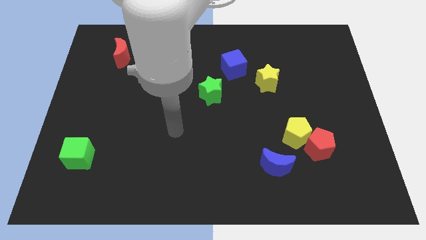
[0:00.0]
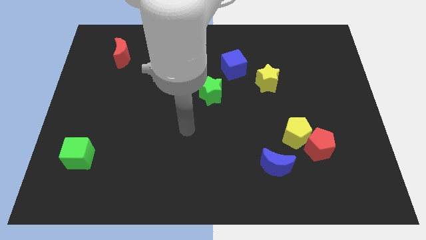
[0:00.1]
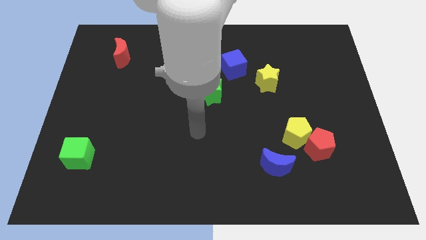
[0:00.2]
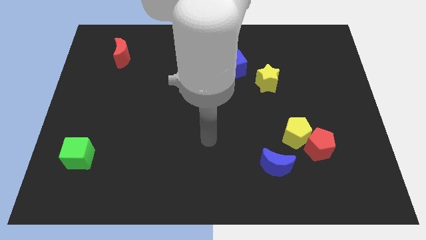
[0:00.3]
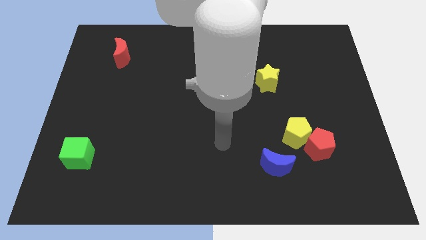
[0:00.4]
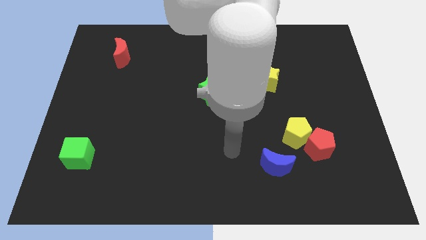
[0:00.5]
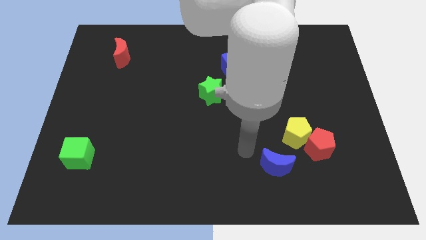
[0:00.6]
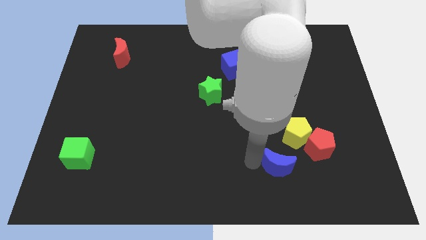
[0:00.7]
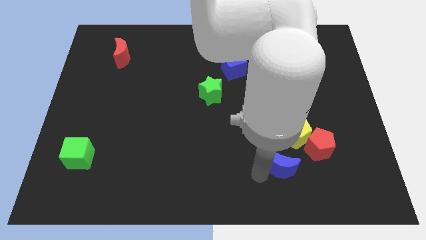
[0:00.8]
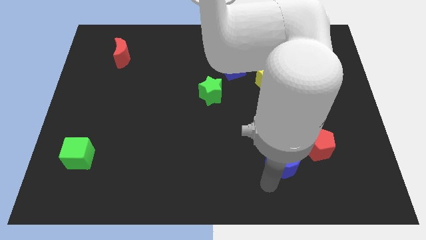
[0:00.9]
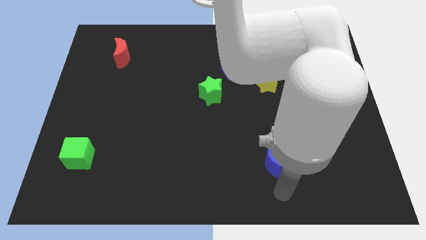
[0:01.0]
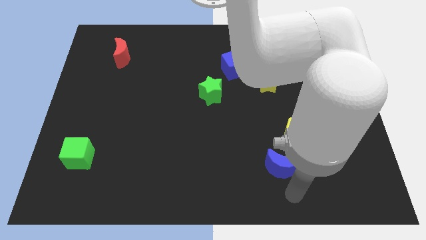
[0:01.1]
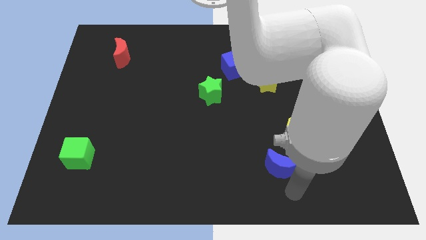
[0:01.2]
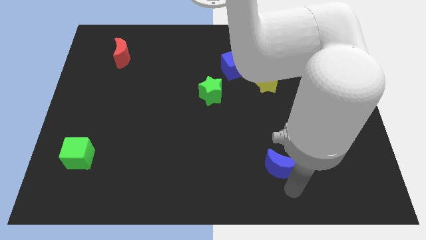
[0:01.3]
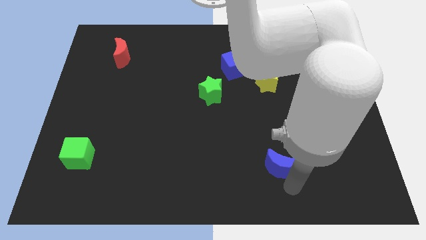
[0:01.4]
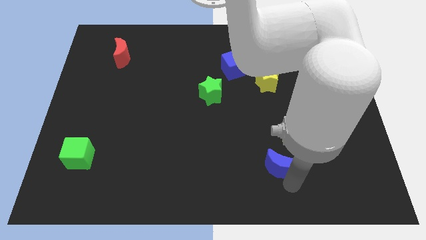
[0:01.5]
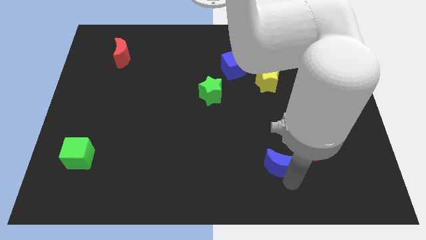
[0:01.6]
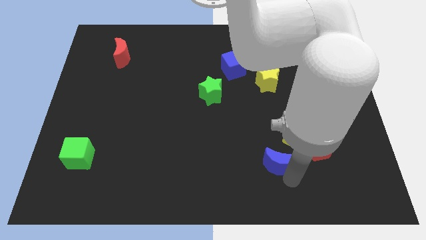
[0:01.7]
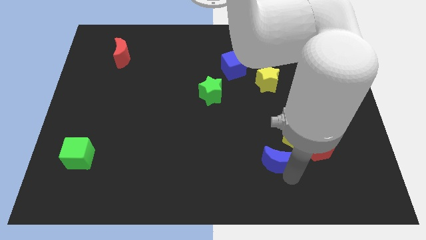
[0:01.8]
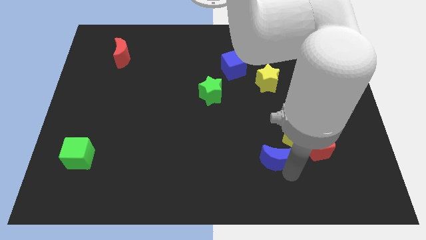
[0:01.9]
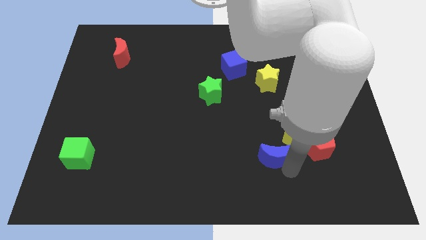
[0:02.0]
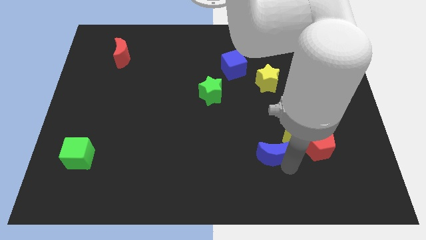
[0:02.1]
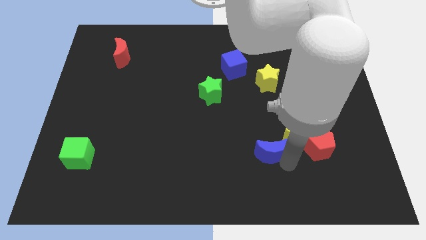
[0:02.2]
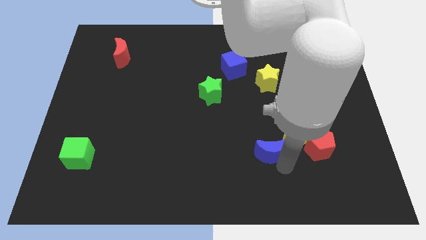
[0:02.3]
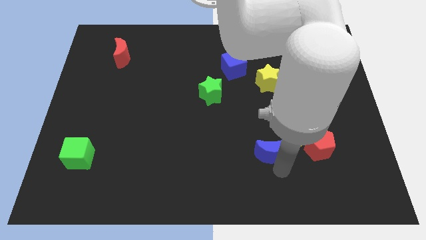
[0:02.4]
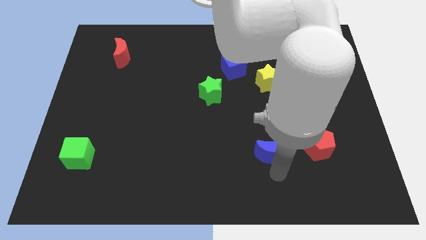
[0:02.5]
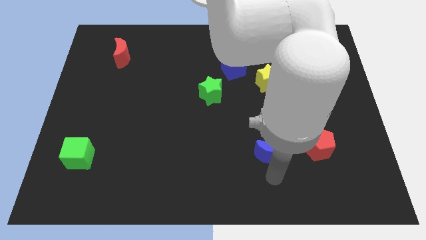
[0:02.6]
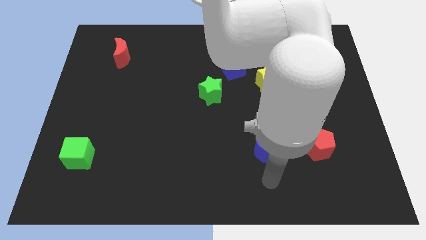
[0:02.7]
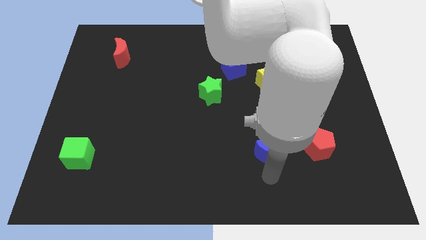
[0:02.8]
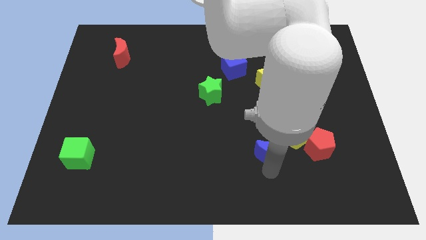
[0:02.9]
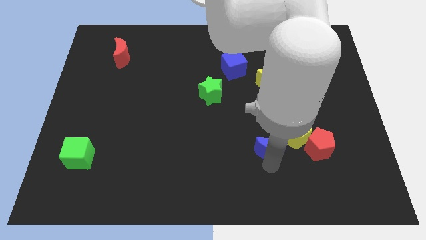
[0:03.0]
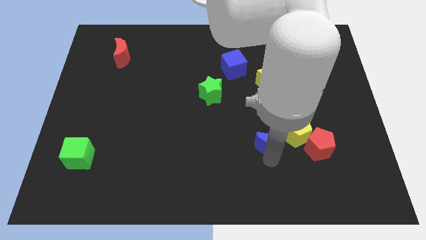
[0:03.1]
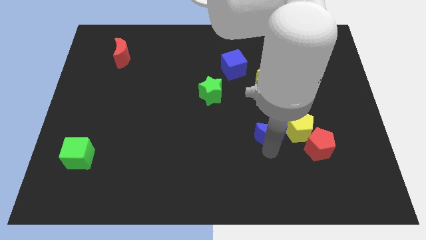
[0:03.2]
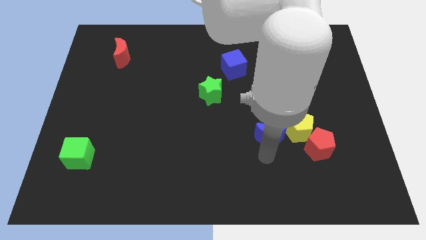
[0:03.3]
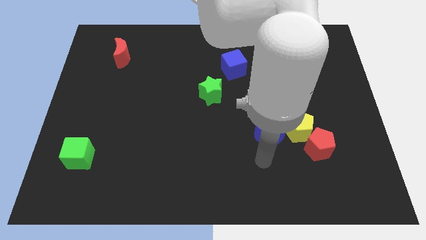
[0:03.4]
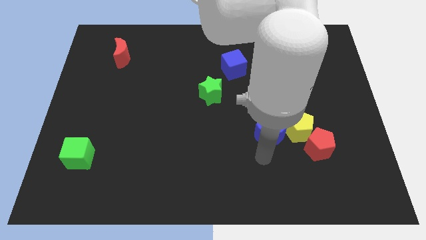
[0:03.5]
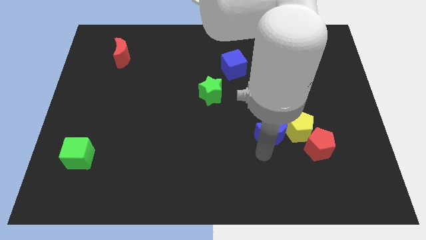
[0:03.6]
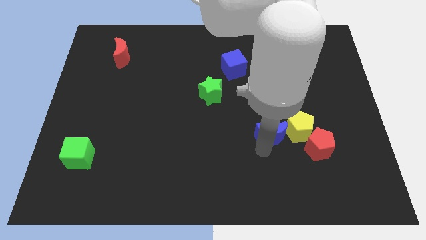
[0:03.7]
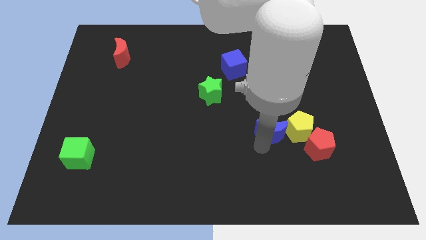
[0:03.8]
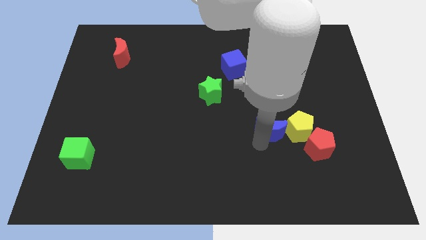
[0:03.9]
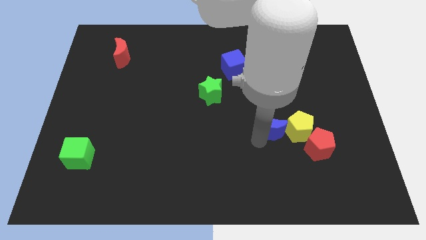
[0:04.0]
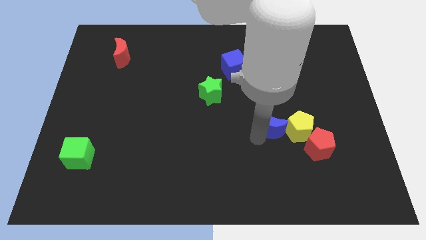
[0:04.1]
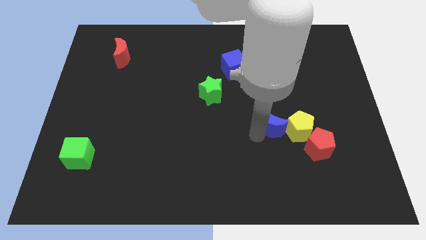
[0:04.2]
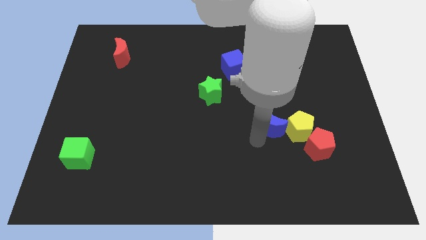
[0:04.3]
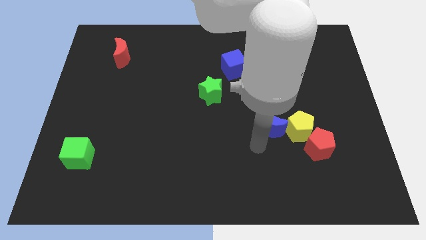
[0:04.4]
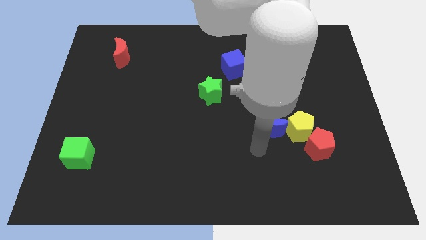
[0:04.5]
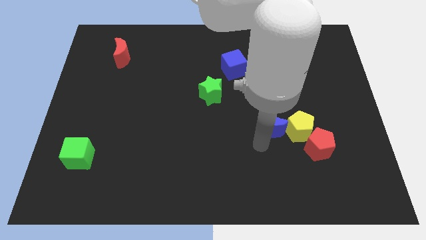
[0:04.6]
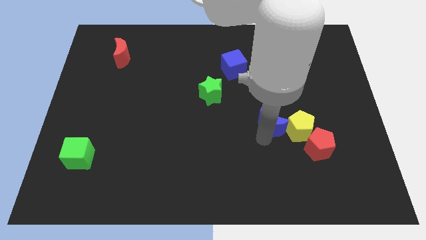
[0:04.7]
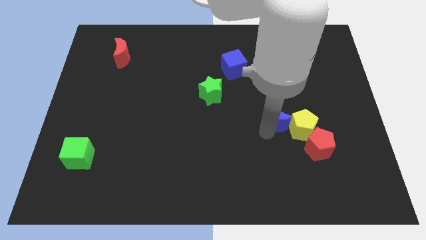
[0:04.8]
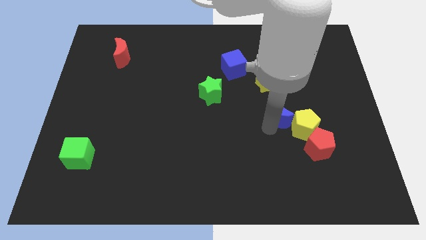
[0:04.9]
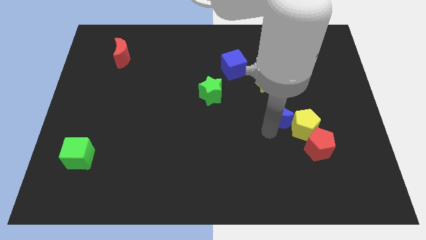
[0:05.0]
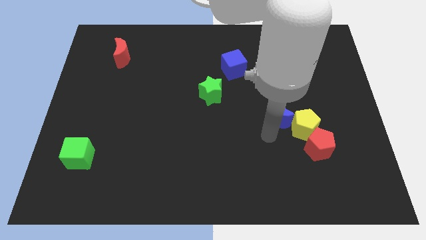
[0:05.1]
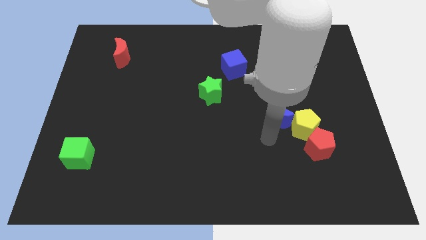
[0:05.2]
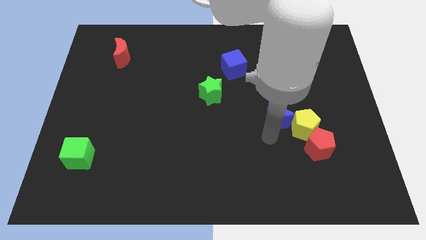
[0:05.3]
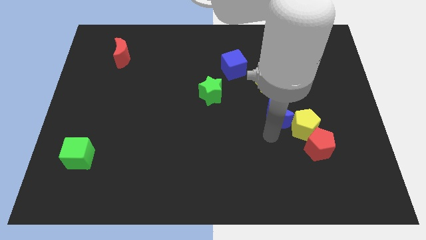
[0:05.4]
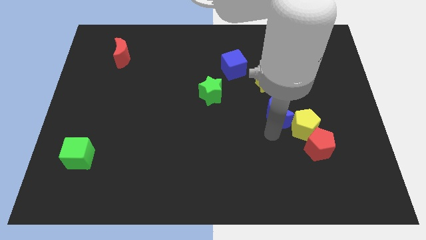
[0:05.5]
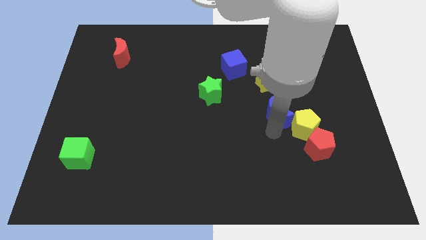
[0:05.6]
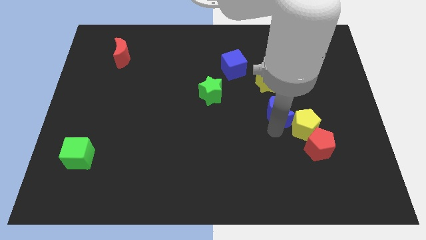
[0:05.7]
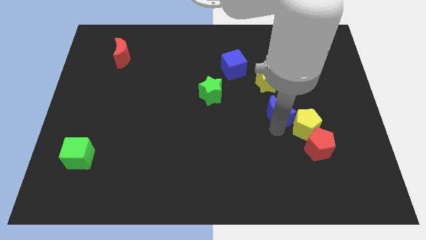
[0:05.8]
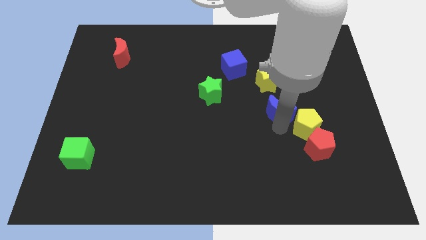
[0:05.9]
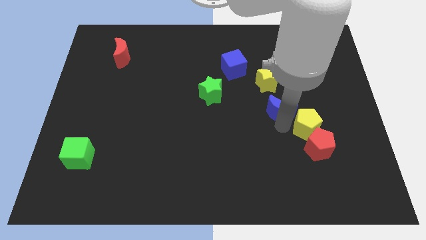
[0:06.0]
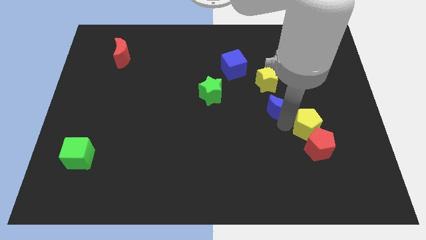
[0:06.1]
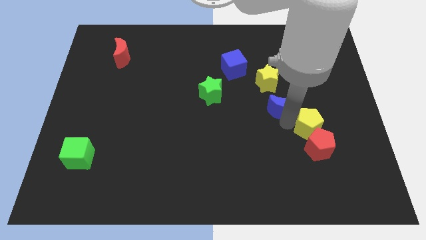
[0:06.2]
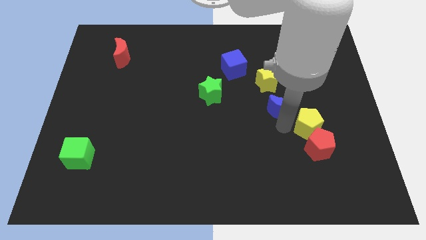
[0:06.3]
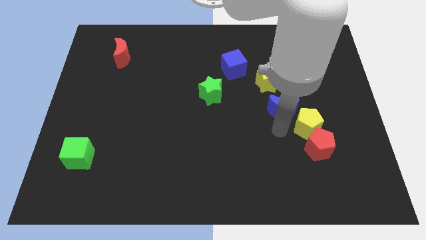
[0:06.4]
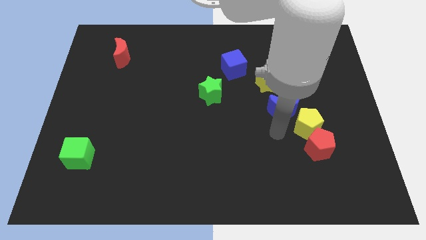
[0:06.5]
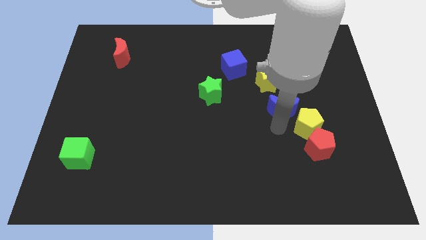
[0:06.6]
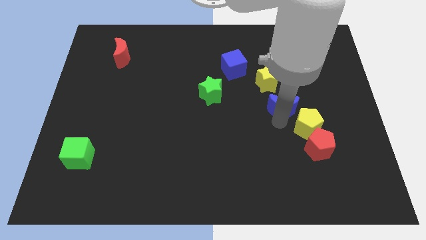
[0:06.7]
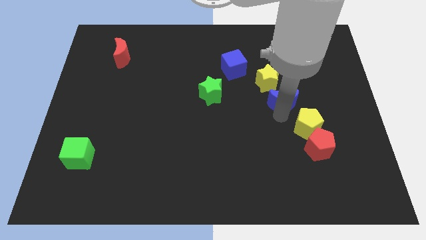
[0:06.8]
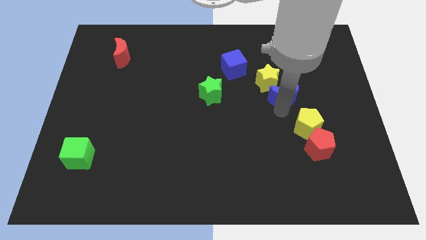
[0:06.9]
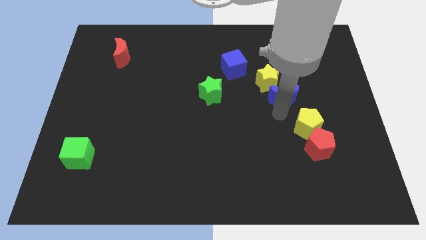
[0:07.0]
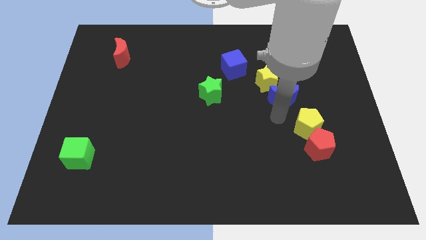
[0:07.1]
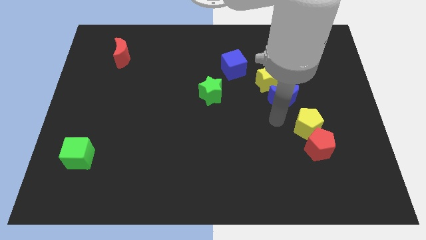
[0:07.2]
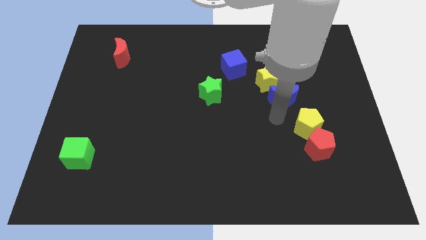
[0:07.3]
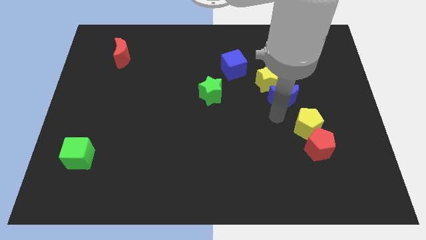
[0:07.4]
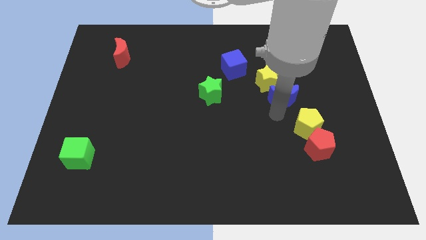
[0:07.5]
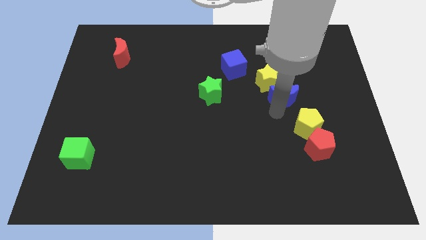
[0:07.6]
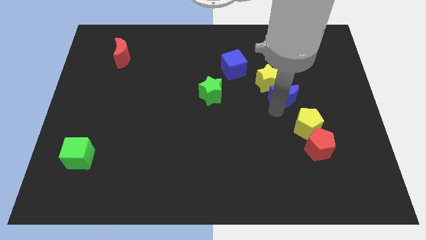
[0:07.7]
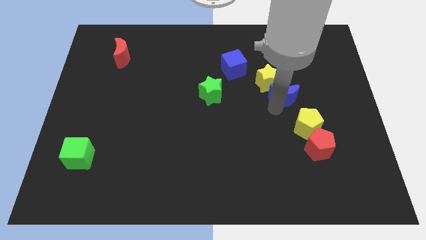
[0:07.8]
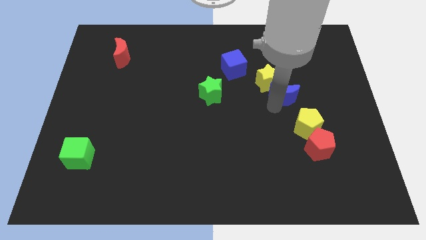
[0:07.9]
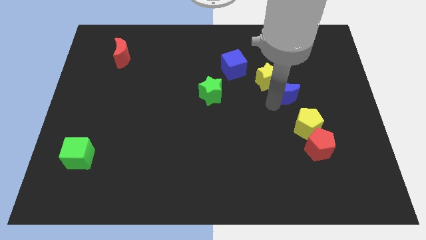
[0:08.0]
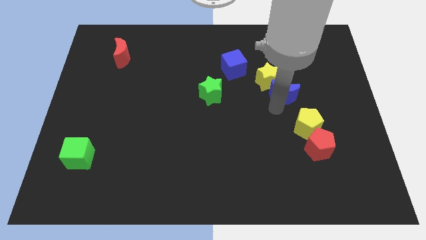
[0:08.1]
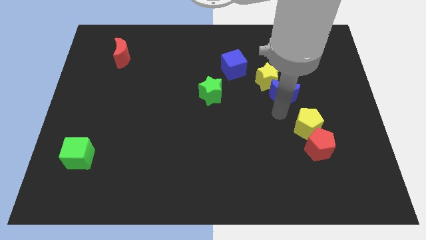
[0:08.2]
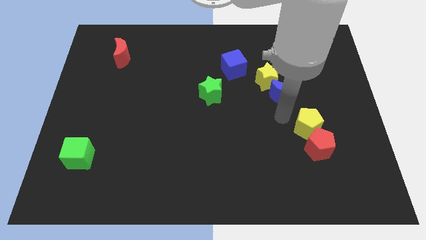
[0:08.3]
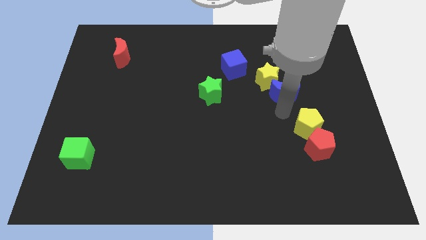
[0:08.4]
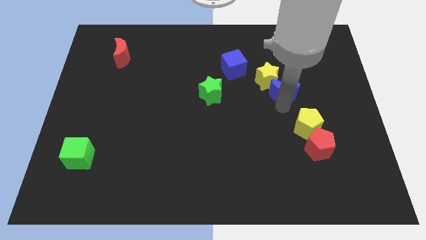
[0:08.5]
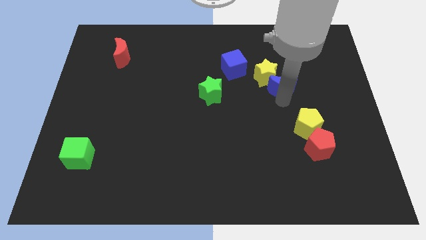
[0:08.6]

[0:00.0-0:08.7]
move the blue moon up
